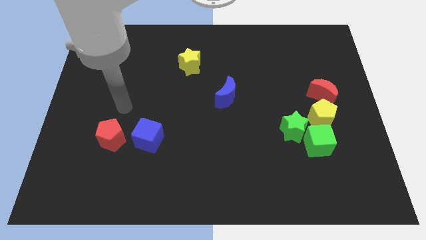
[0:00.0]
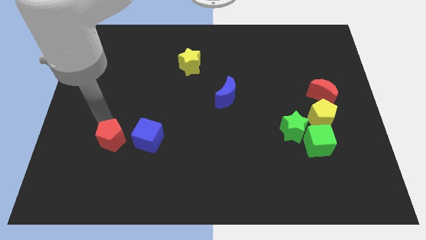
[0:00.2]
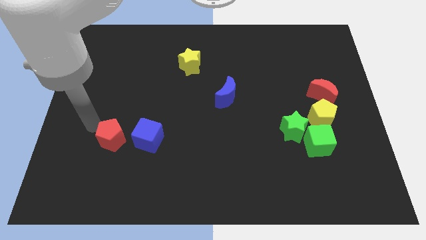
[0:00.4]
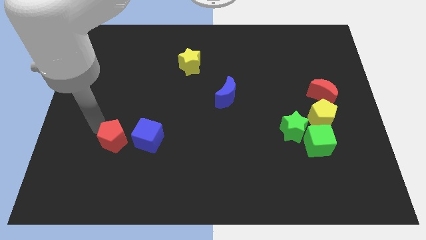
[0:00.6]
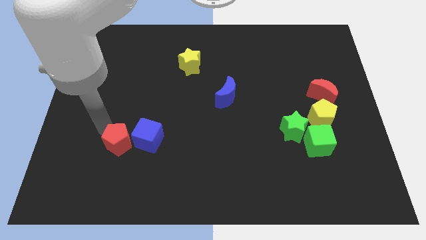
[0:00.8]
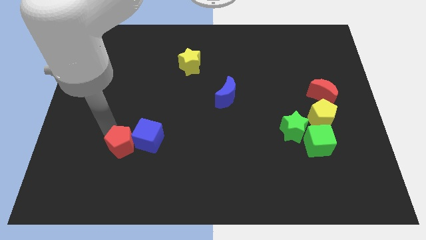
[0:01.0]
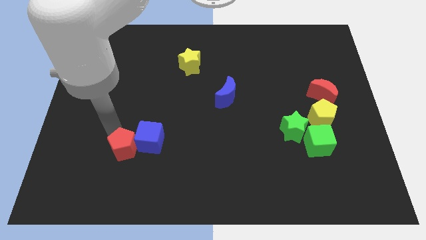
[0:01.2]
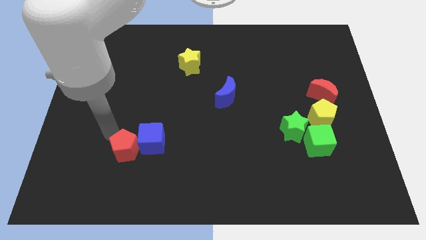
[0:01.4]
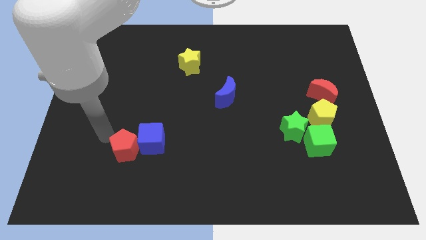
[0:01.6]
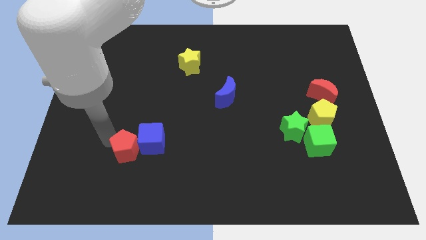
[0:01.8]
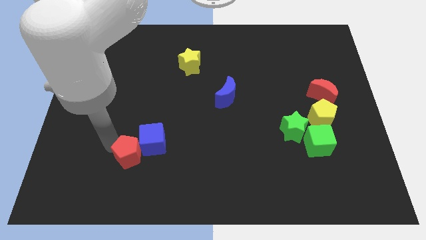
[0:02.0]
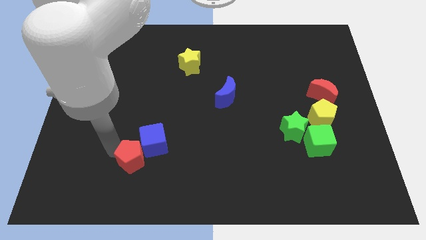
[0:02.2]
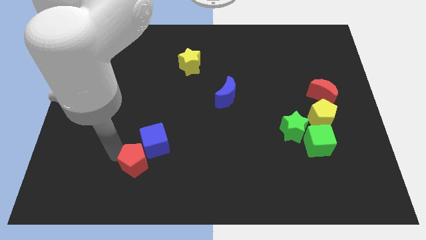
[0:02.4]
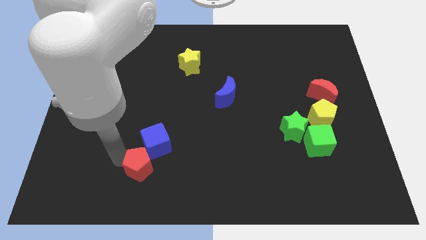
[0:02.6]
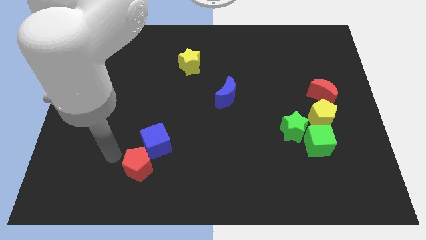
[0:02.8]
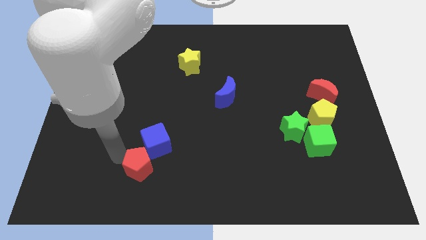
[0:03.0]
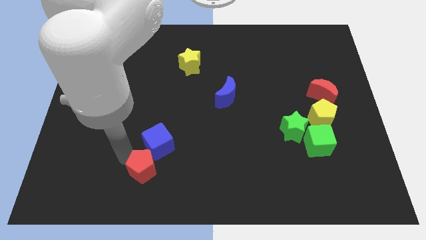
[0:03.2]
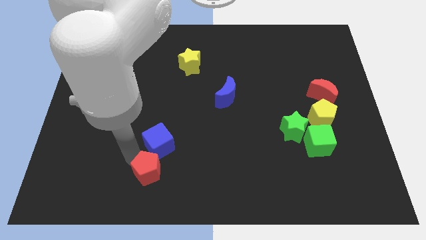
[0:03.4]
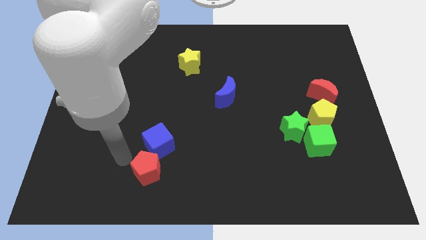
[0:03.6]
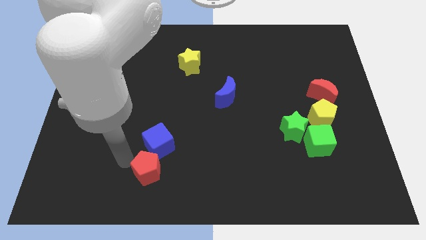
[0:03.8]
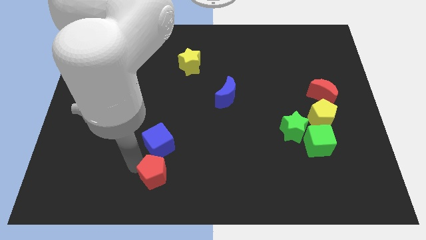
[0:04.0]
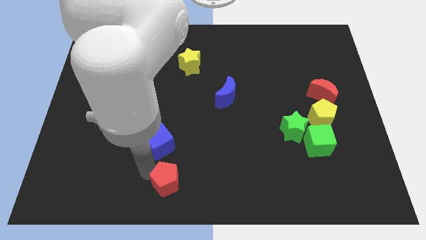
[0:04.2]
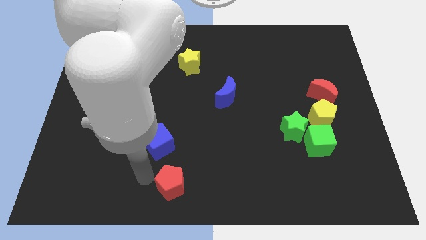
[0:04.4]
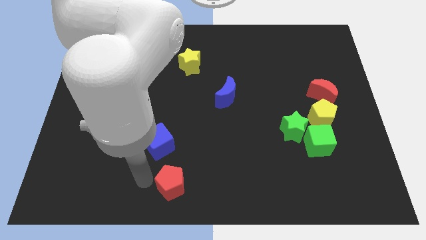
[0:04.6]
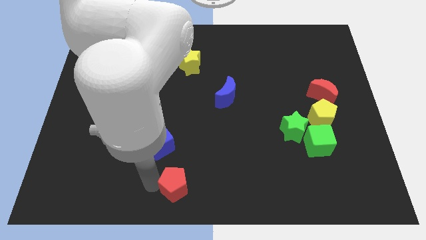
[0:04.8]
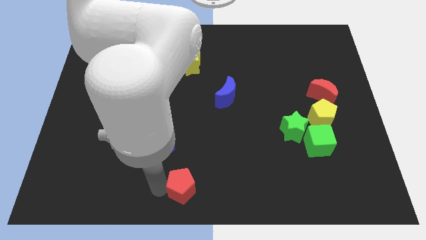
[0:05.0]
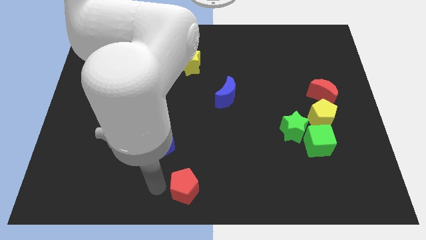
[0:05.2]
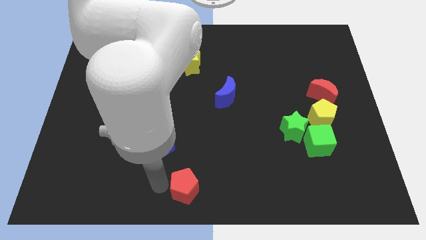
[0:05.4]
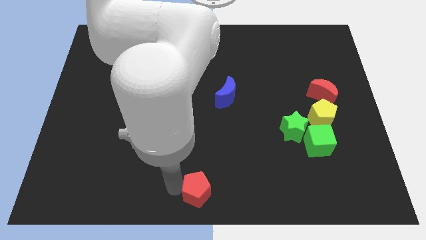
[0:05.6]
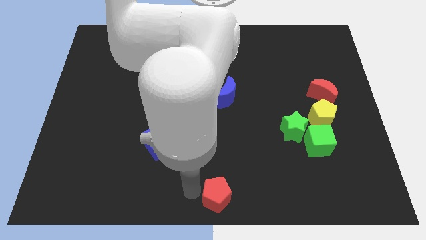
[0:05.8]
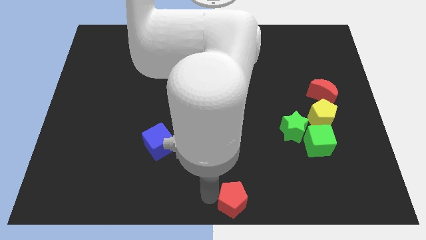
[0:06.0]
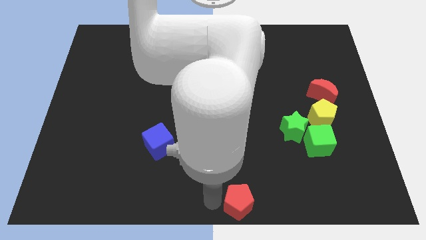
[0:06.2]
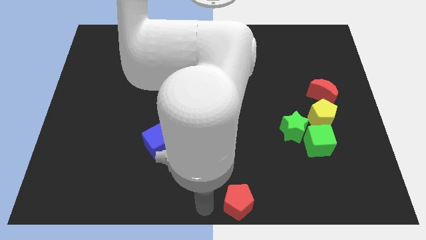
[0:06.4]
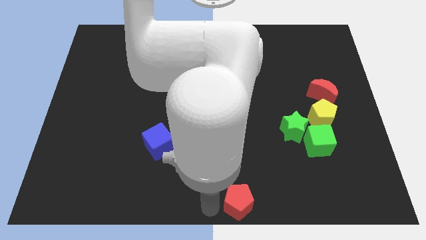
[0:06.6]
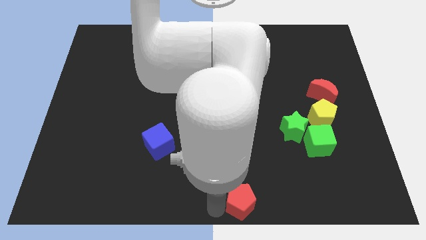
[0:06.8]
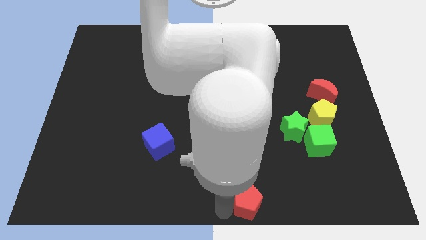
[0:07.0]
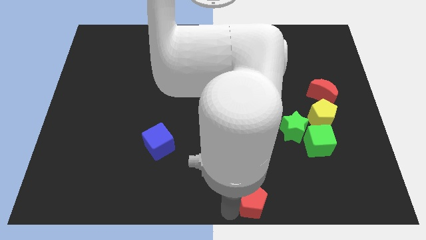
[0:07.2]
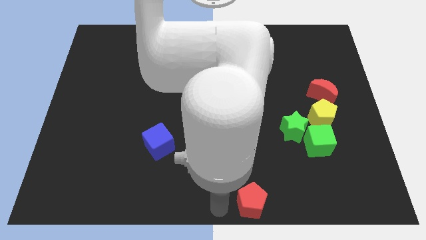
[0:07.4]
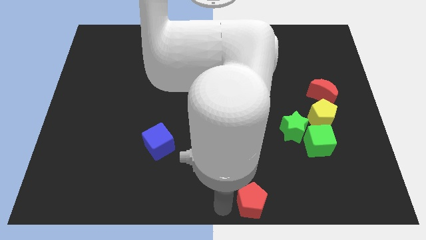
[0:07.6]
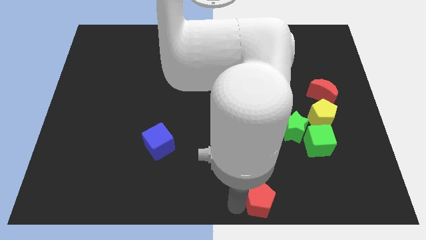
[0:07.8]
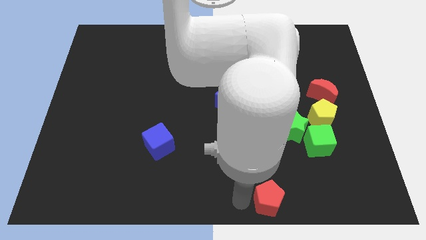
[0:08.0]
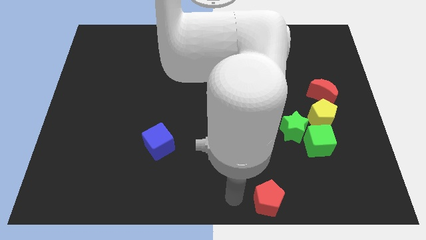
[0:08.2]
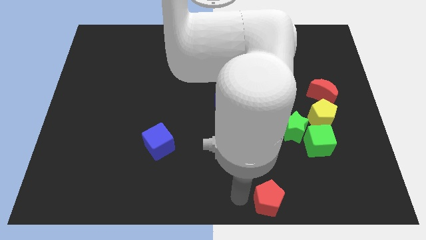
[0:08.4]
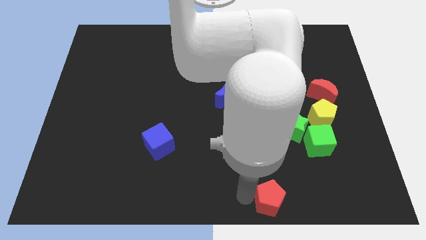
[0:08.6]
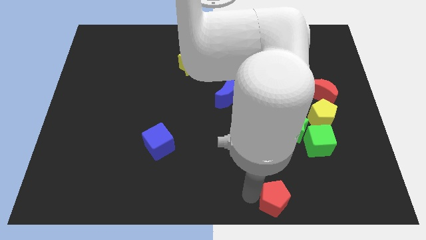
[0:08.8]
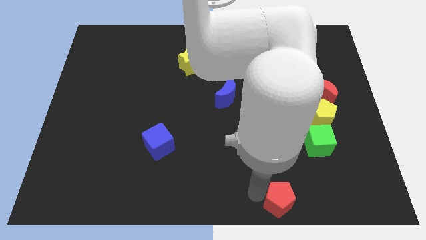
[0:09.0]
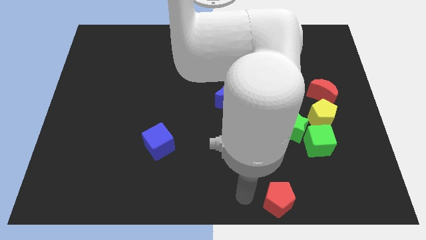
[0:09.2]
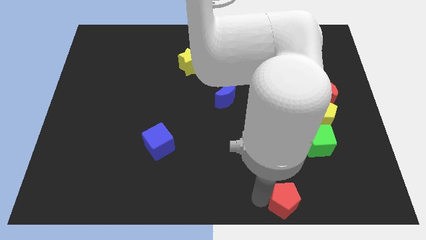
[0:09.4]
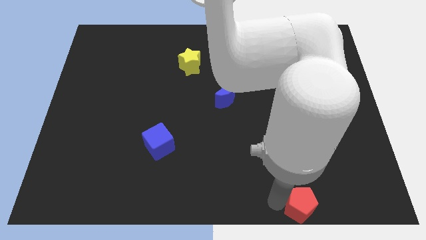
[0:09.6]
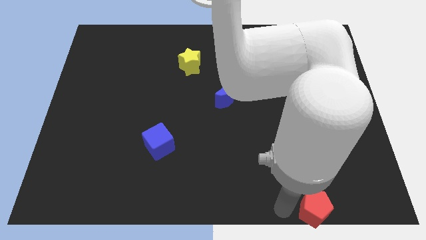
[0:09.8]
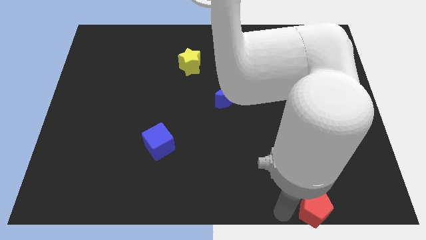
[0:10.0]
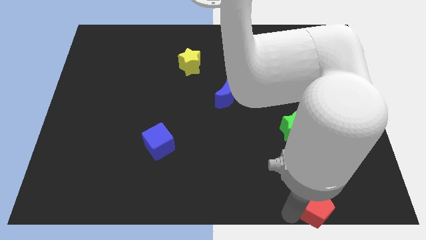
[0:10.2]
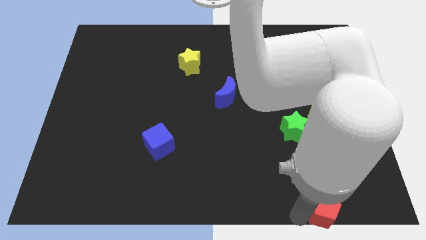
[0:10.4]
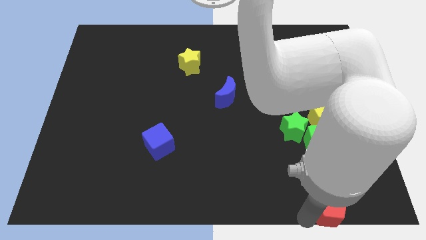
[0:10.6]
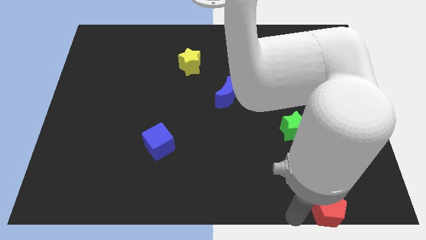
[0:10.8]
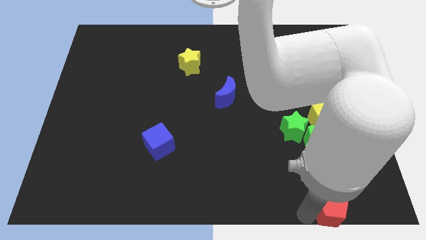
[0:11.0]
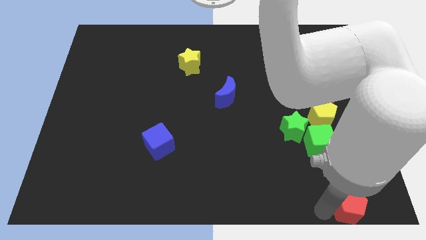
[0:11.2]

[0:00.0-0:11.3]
put the red pentagon to the bottom right of the board
